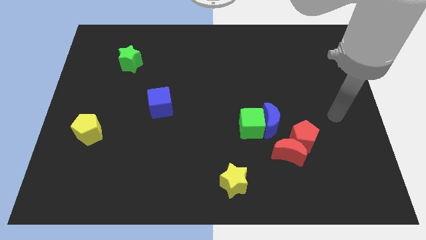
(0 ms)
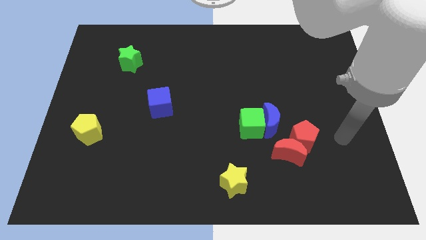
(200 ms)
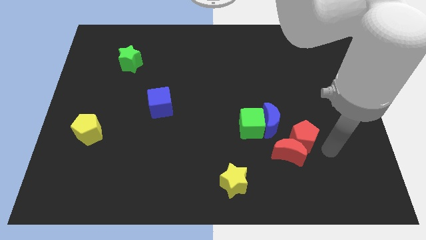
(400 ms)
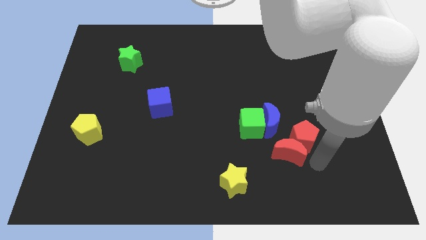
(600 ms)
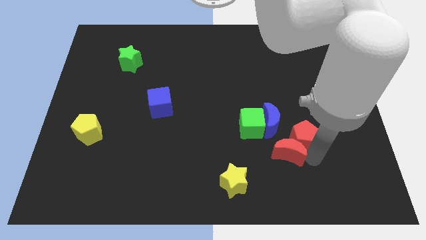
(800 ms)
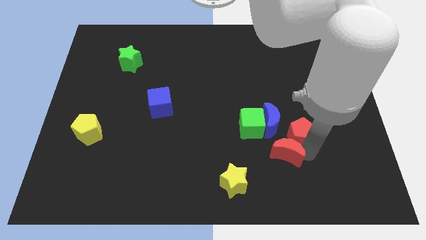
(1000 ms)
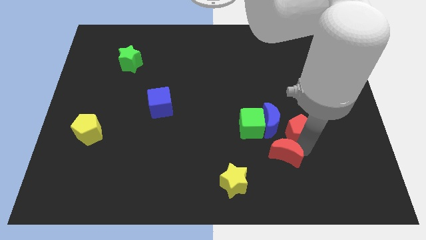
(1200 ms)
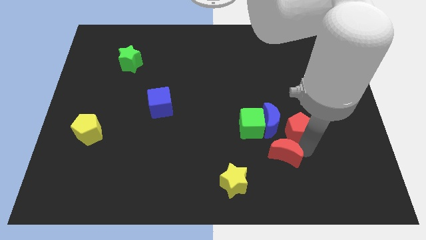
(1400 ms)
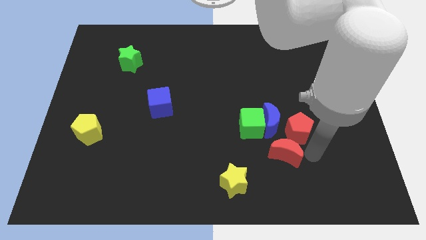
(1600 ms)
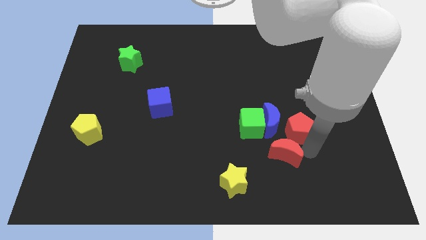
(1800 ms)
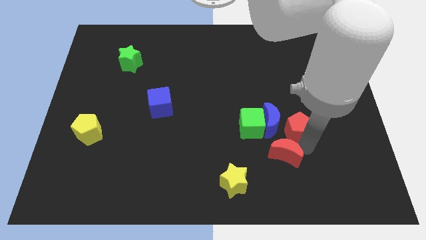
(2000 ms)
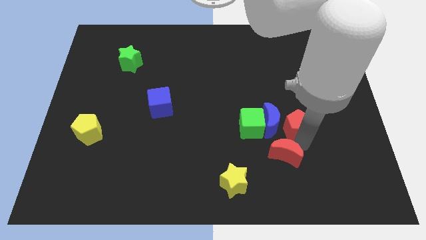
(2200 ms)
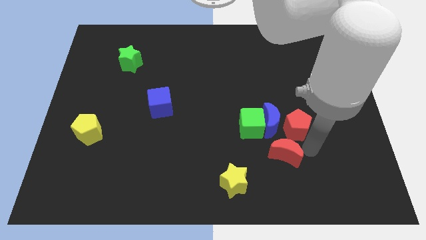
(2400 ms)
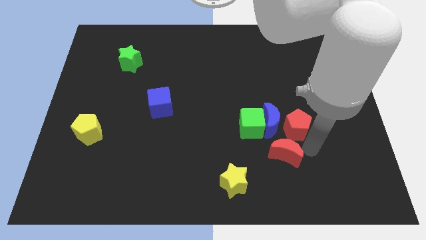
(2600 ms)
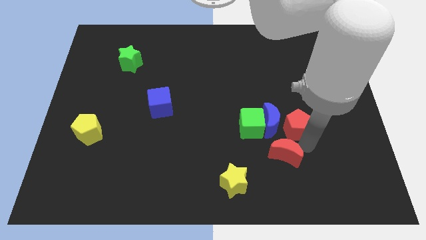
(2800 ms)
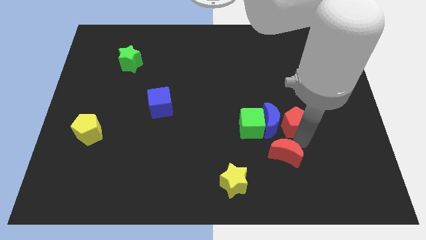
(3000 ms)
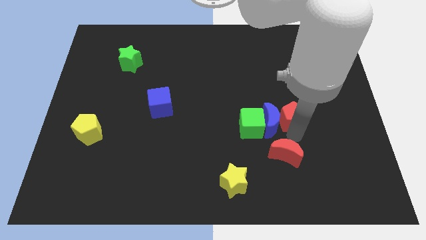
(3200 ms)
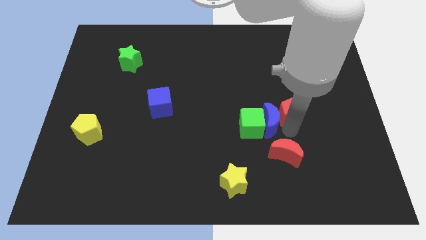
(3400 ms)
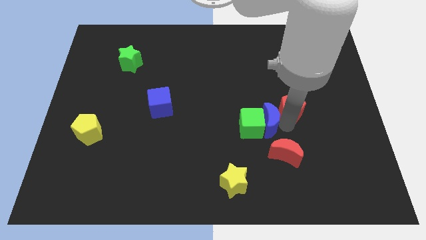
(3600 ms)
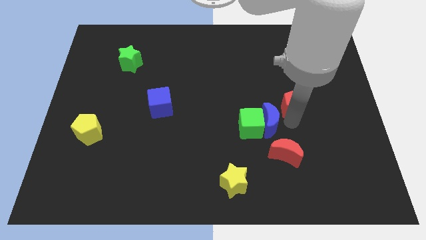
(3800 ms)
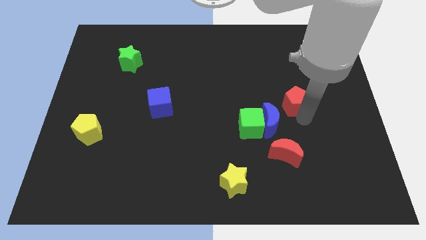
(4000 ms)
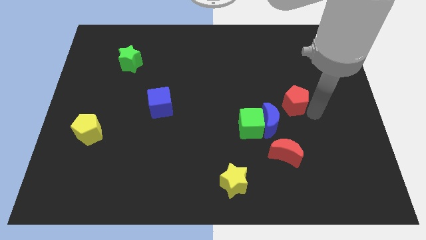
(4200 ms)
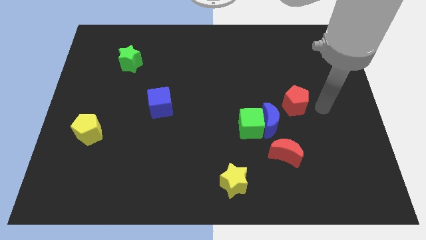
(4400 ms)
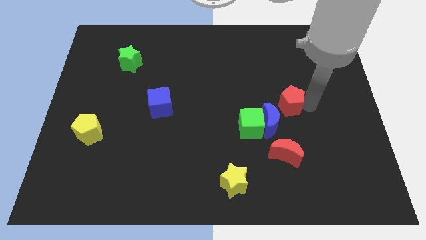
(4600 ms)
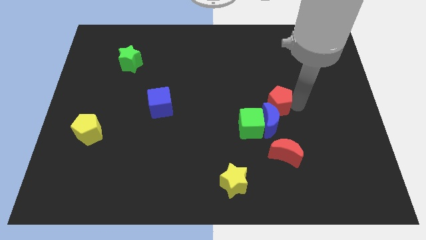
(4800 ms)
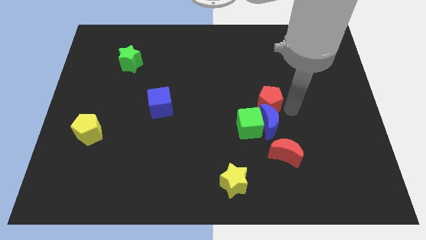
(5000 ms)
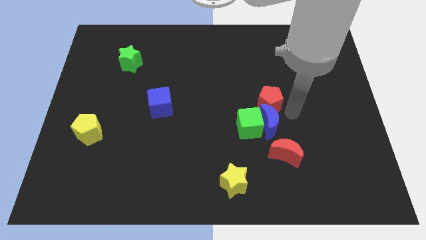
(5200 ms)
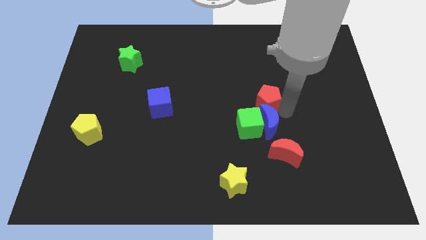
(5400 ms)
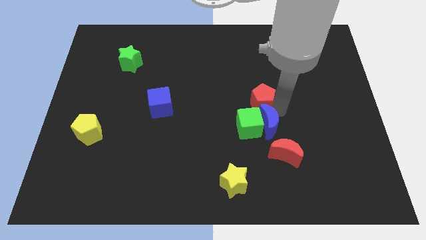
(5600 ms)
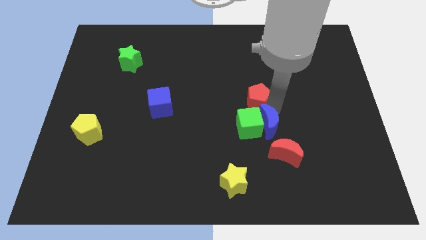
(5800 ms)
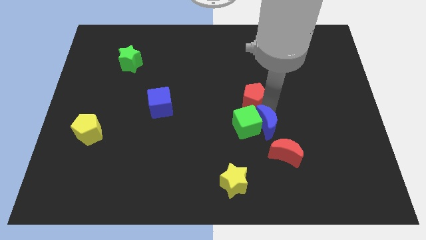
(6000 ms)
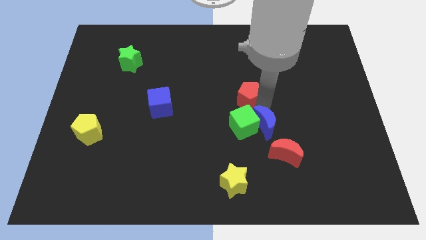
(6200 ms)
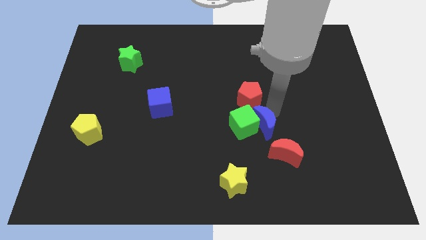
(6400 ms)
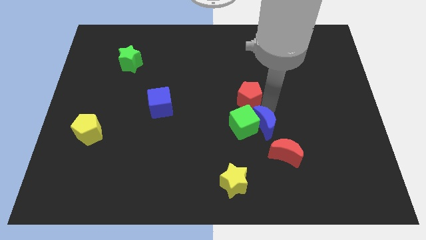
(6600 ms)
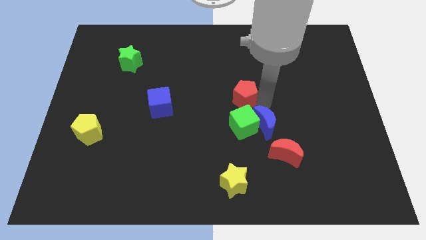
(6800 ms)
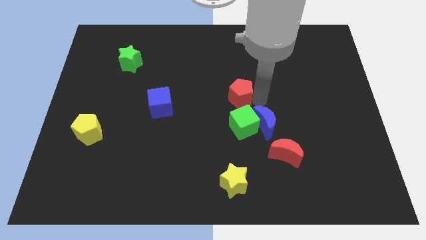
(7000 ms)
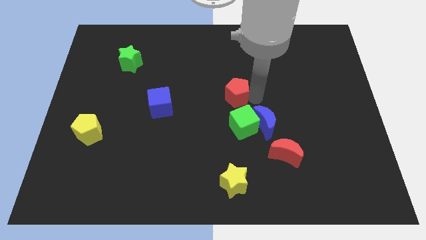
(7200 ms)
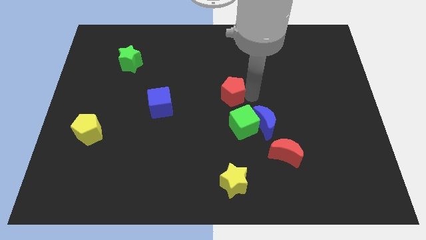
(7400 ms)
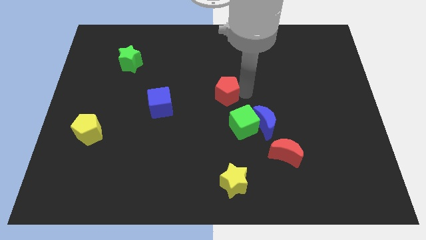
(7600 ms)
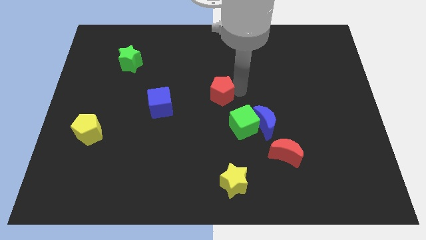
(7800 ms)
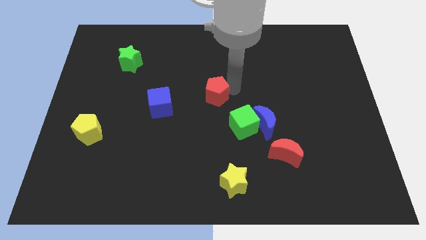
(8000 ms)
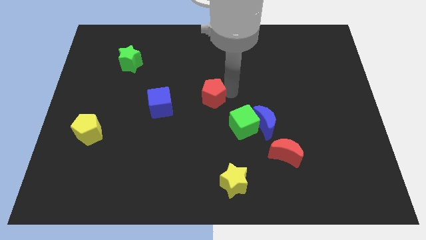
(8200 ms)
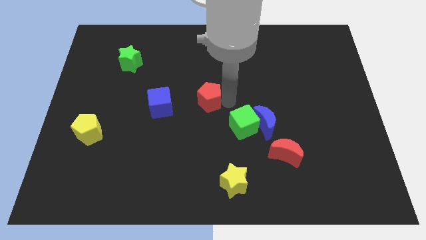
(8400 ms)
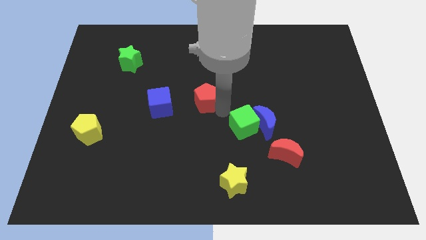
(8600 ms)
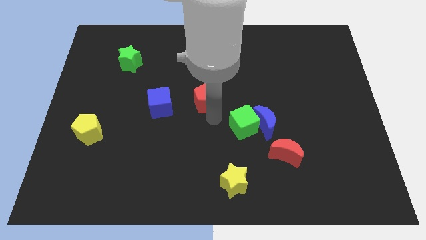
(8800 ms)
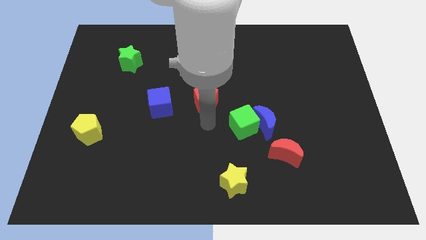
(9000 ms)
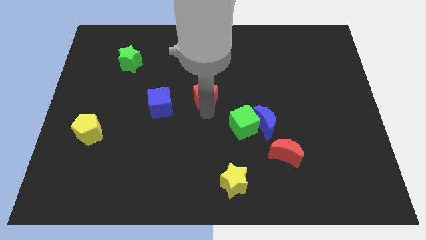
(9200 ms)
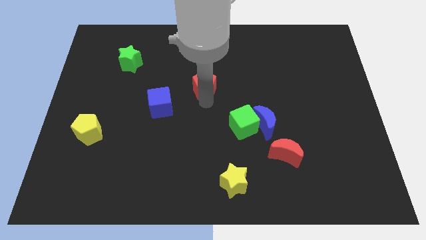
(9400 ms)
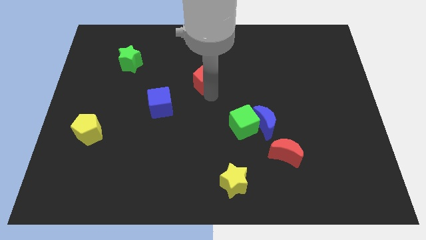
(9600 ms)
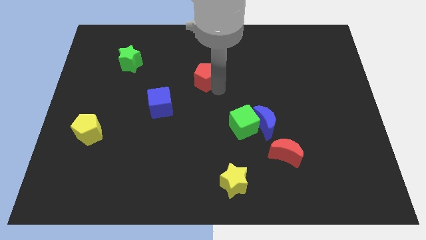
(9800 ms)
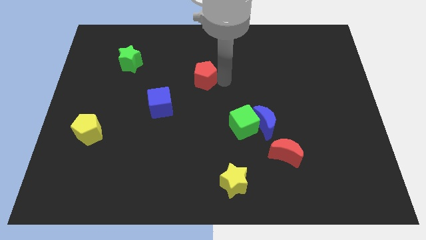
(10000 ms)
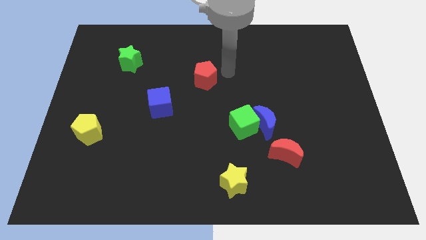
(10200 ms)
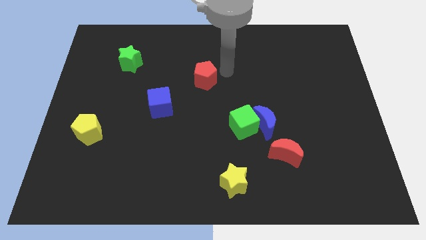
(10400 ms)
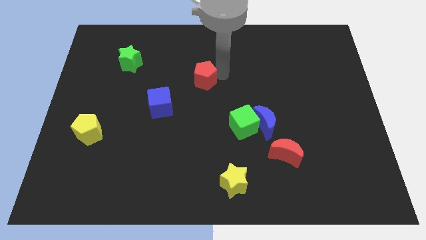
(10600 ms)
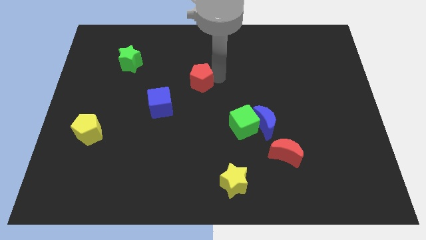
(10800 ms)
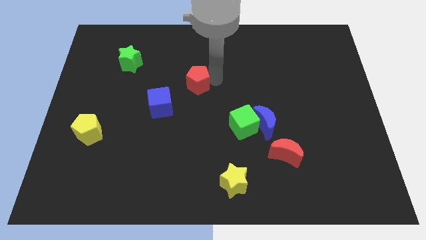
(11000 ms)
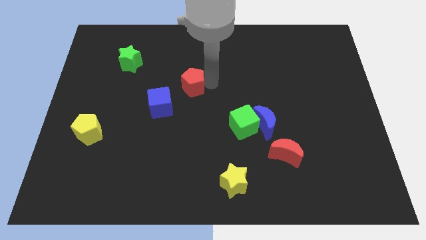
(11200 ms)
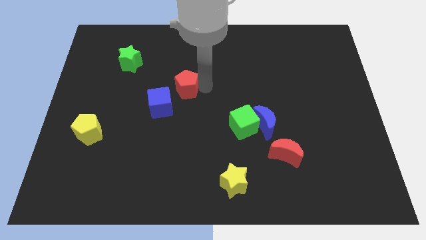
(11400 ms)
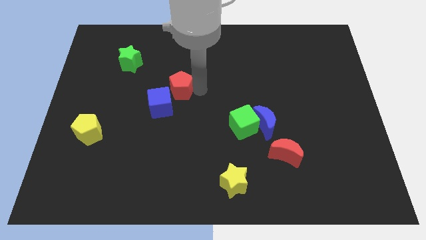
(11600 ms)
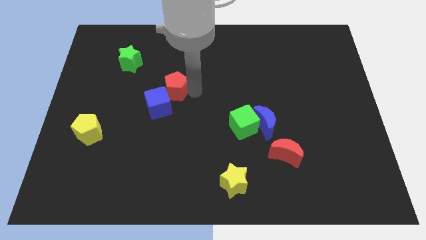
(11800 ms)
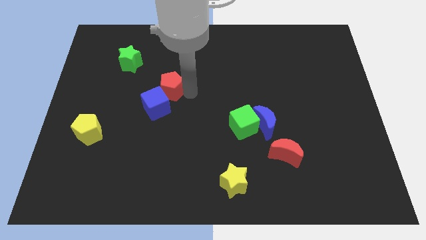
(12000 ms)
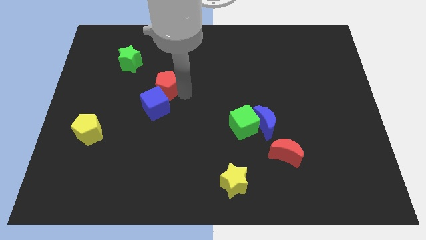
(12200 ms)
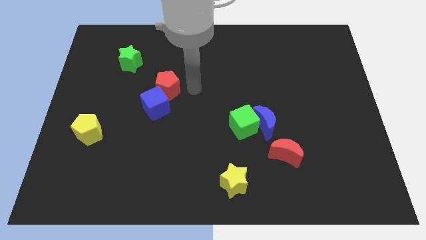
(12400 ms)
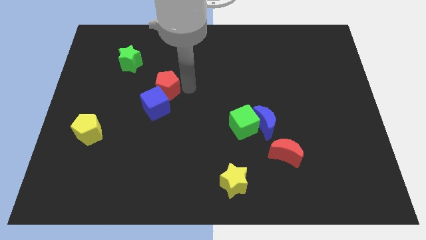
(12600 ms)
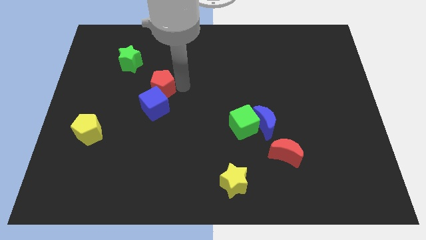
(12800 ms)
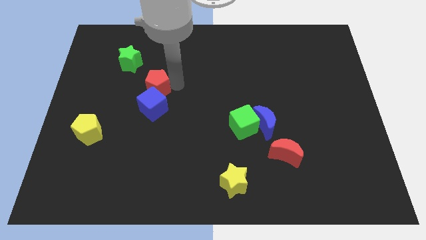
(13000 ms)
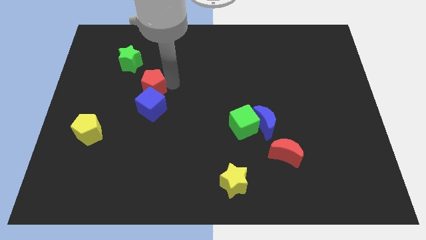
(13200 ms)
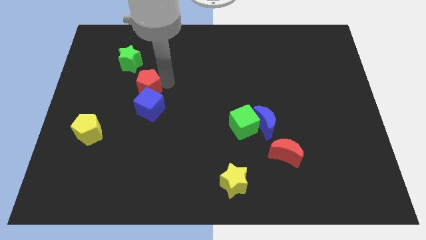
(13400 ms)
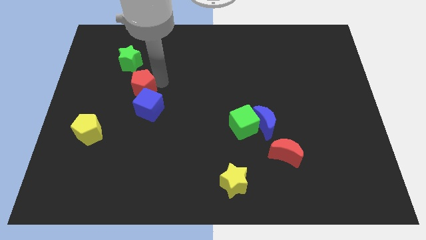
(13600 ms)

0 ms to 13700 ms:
move the red pentagon to the bottom side of the green star

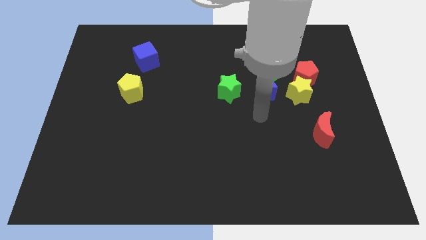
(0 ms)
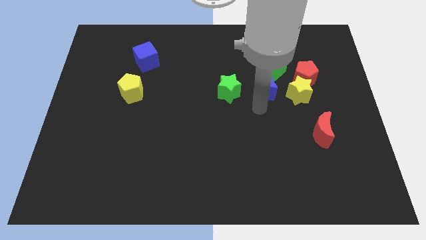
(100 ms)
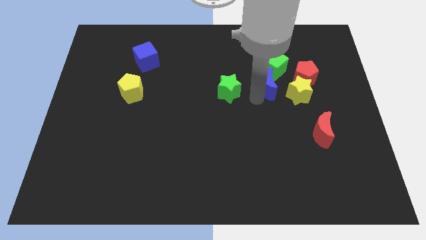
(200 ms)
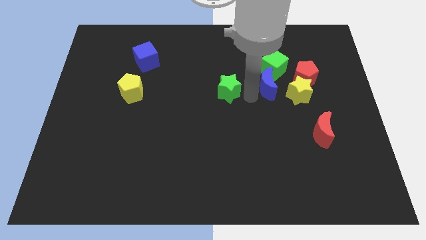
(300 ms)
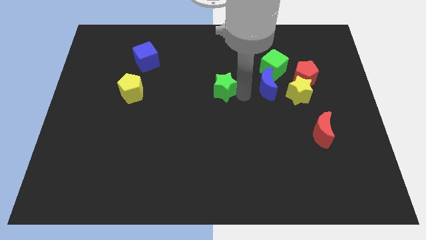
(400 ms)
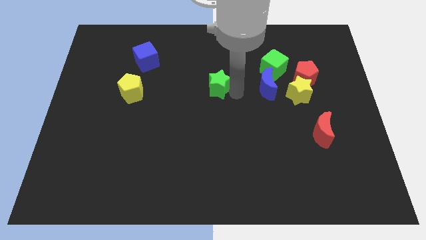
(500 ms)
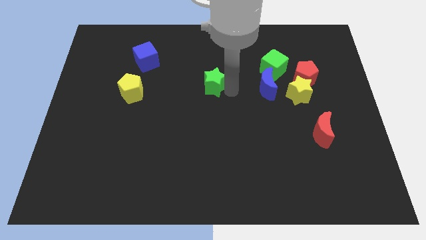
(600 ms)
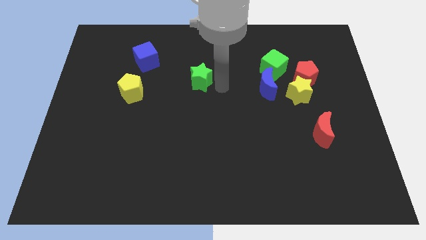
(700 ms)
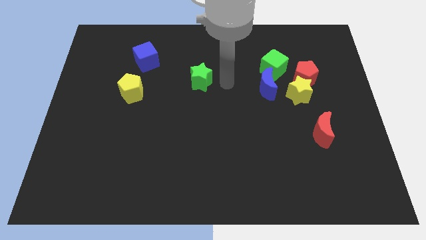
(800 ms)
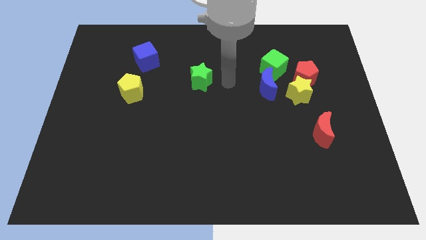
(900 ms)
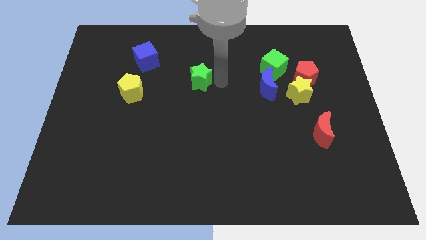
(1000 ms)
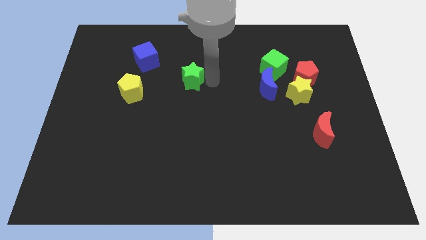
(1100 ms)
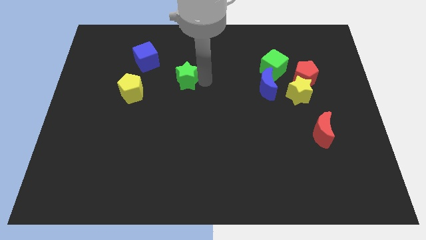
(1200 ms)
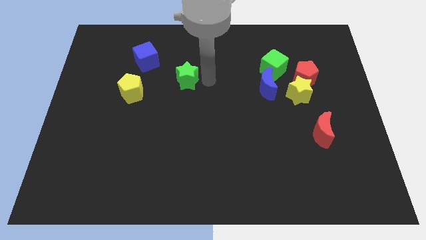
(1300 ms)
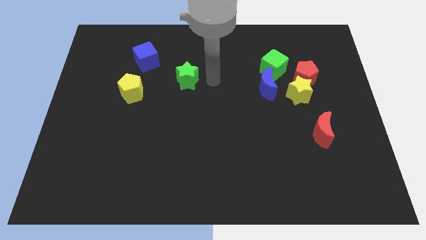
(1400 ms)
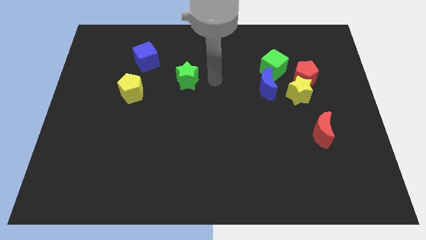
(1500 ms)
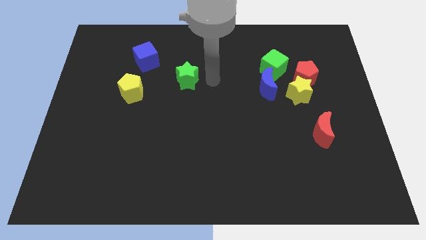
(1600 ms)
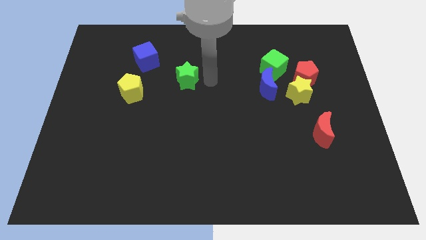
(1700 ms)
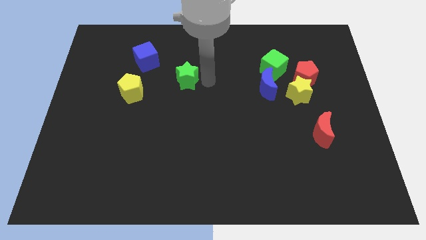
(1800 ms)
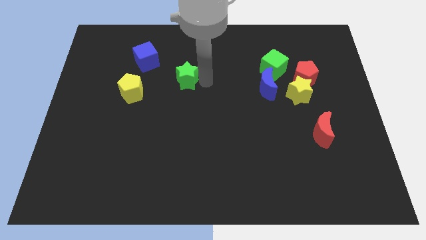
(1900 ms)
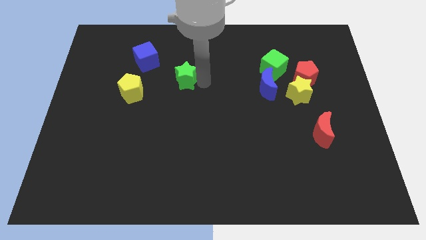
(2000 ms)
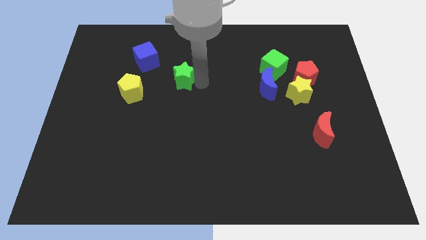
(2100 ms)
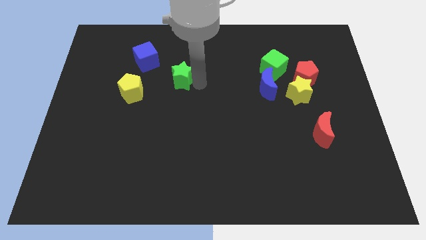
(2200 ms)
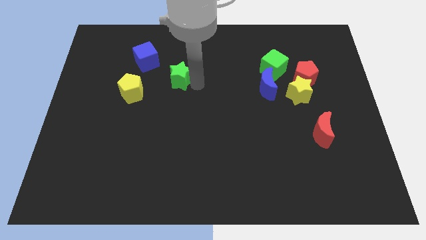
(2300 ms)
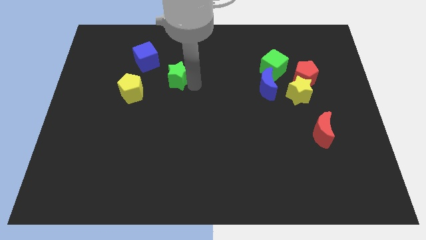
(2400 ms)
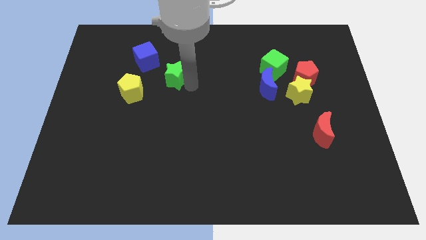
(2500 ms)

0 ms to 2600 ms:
push the green star diagonally up and to the right of the yellow pentagon
